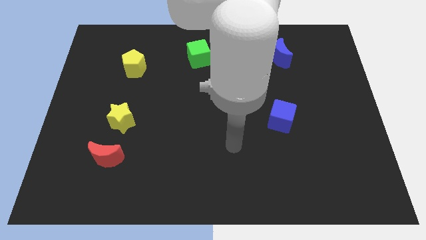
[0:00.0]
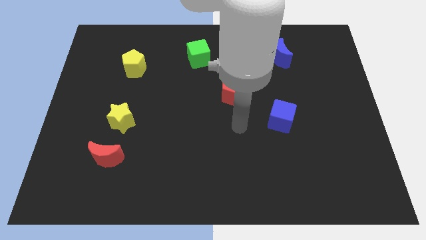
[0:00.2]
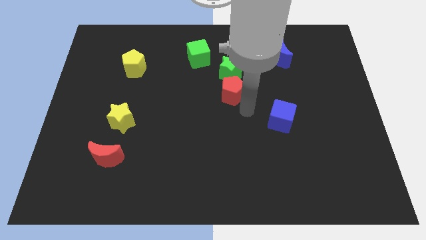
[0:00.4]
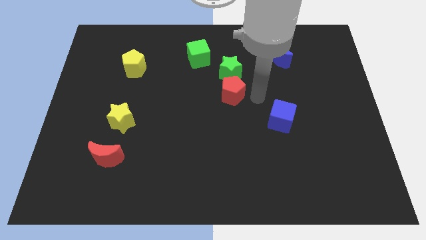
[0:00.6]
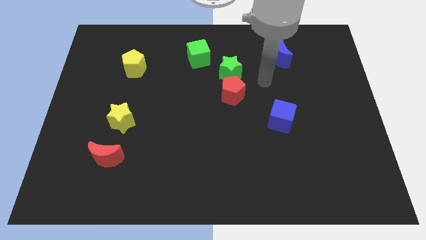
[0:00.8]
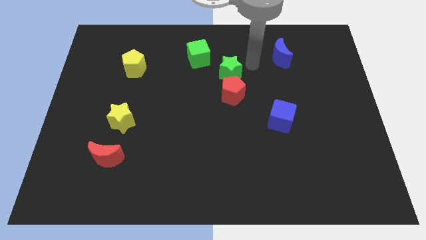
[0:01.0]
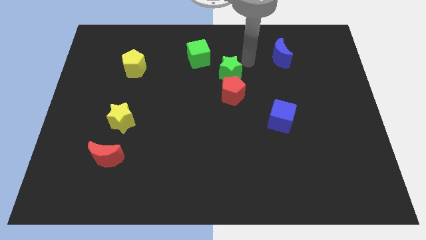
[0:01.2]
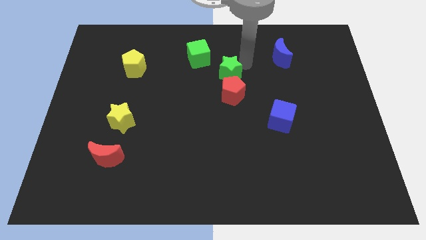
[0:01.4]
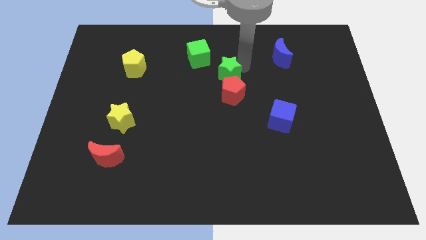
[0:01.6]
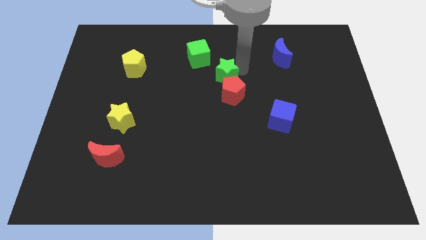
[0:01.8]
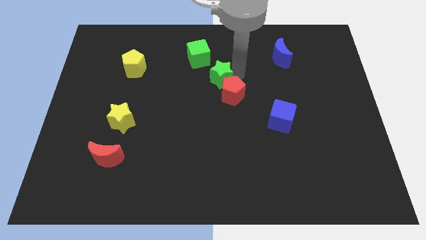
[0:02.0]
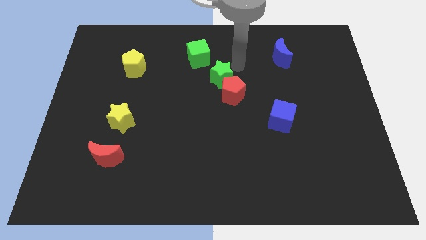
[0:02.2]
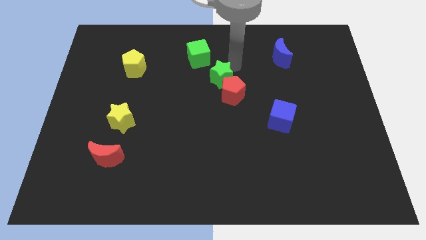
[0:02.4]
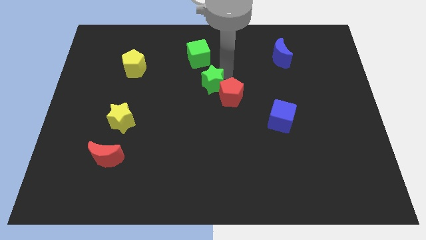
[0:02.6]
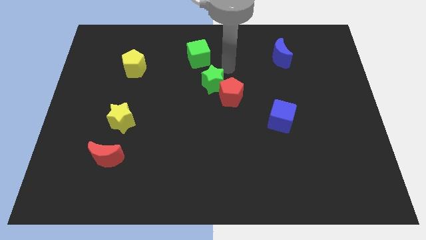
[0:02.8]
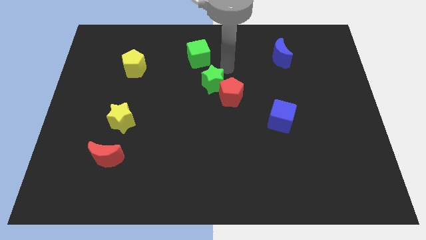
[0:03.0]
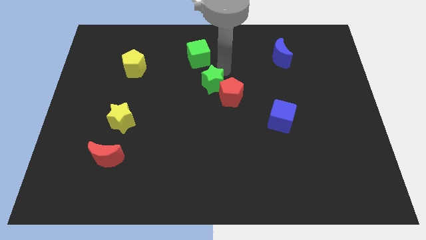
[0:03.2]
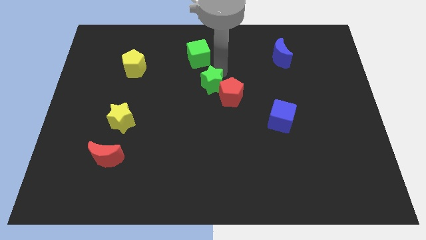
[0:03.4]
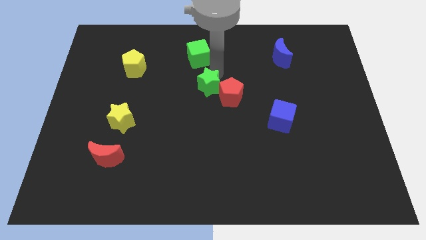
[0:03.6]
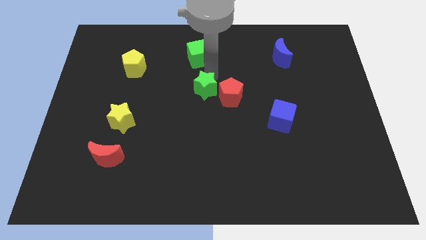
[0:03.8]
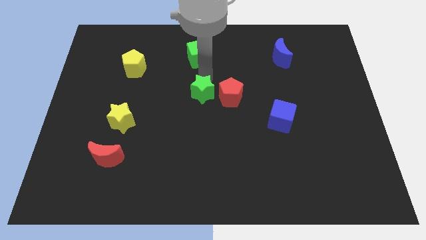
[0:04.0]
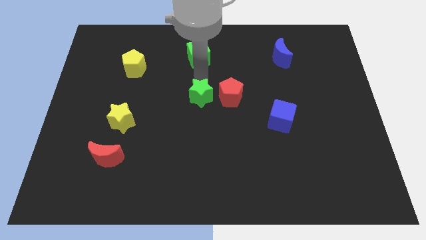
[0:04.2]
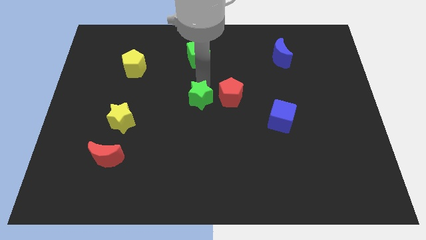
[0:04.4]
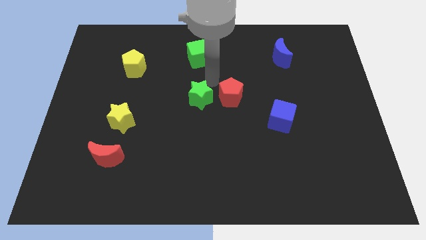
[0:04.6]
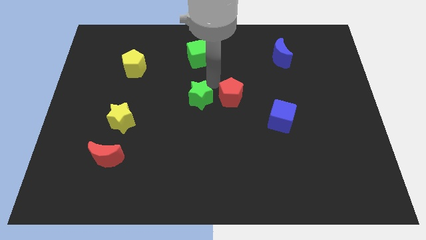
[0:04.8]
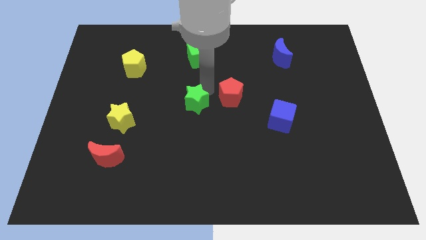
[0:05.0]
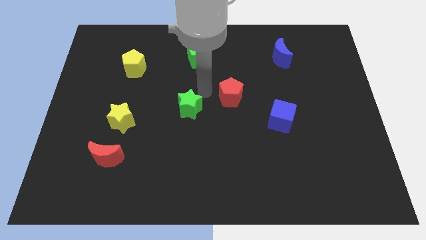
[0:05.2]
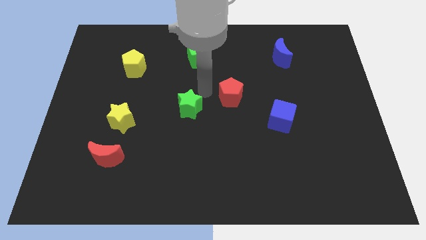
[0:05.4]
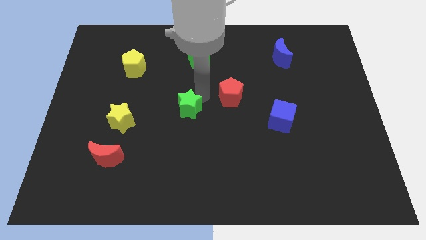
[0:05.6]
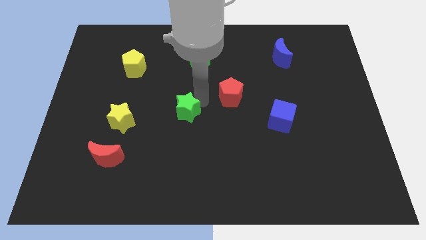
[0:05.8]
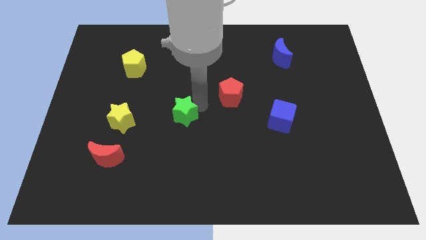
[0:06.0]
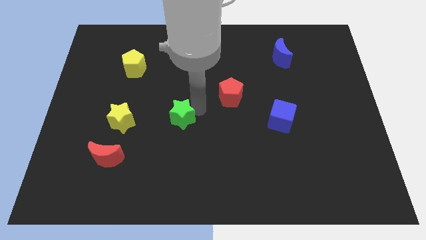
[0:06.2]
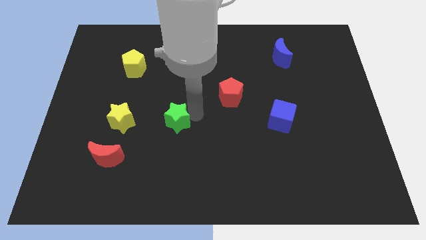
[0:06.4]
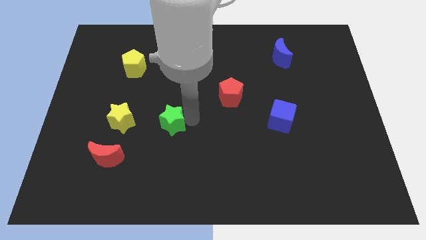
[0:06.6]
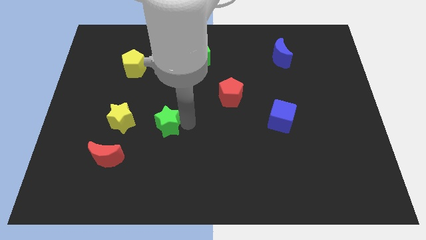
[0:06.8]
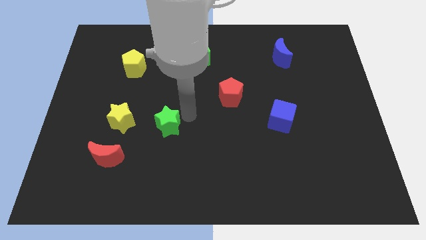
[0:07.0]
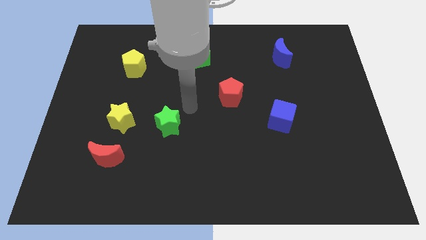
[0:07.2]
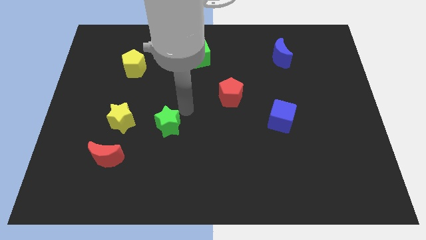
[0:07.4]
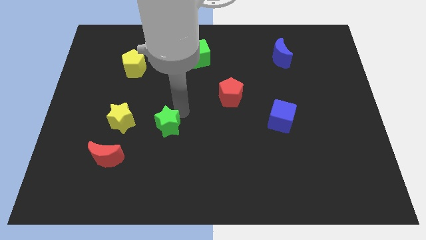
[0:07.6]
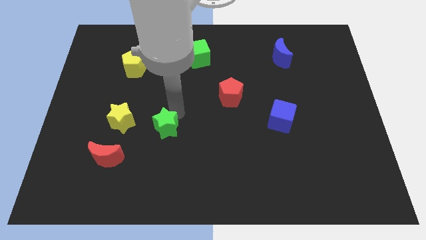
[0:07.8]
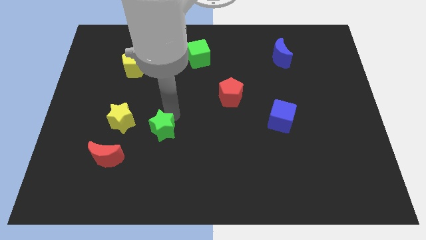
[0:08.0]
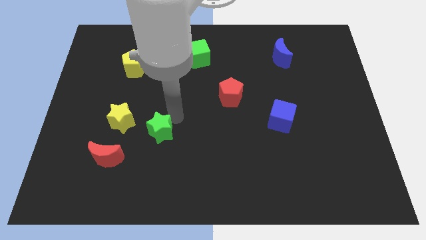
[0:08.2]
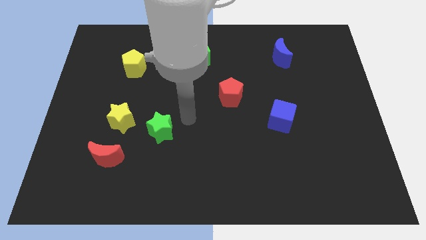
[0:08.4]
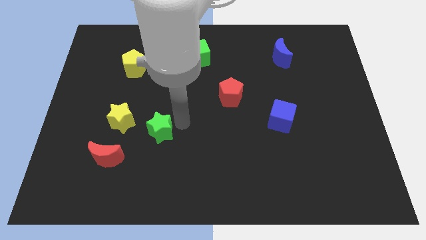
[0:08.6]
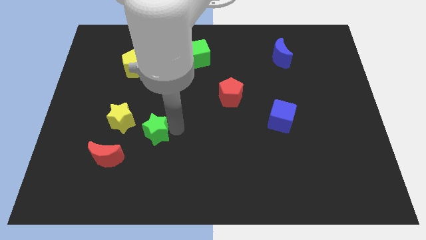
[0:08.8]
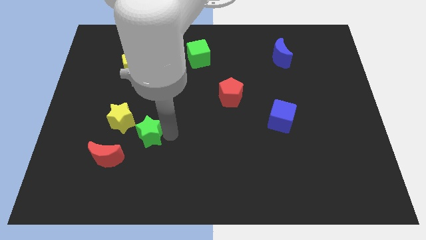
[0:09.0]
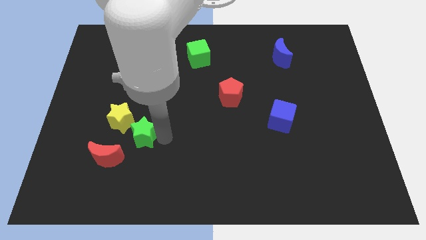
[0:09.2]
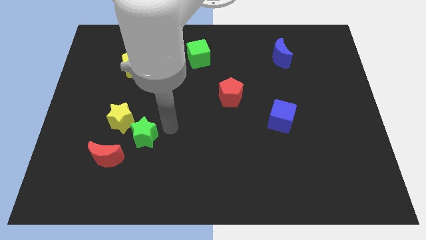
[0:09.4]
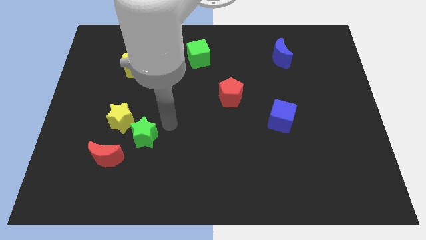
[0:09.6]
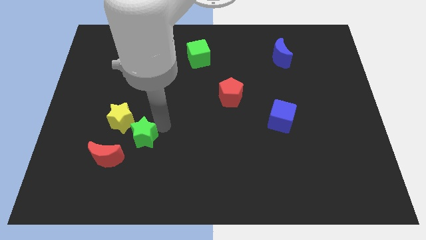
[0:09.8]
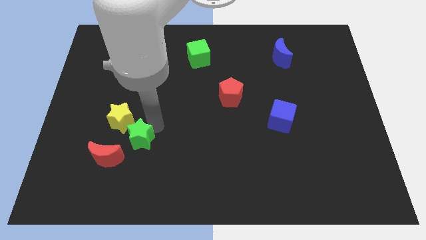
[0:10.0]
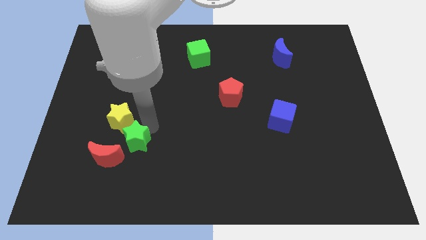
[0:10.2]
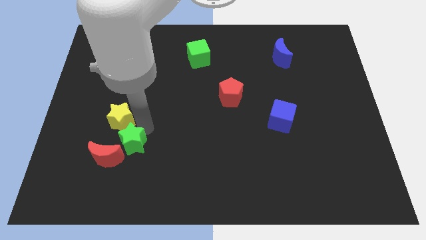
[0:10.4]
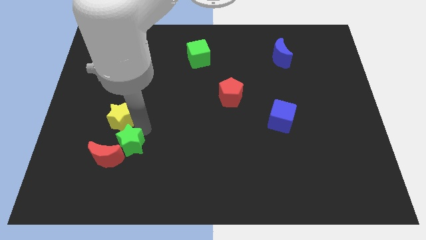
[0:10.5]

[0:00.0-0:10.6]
move the green star to the red moon

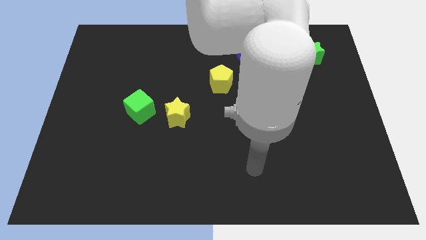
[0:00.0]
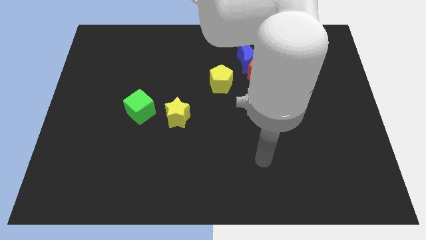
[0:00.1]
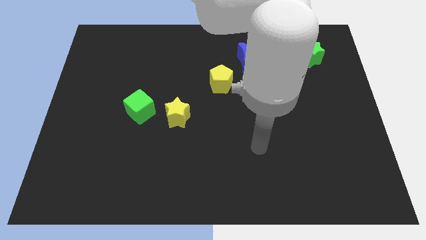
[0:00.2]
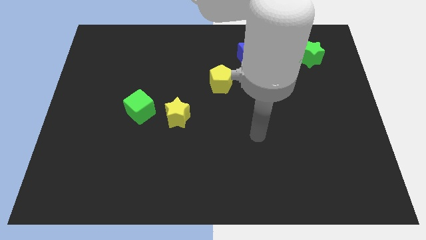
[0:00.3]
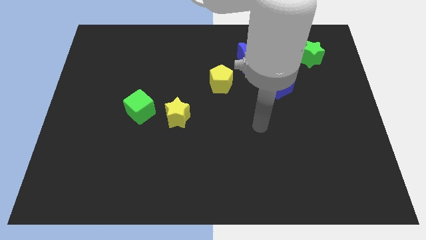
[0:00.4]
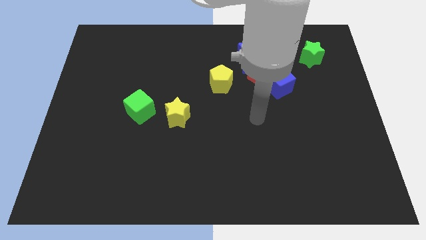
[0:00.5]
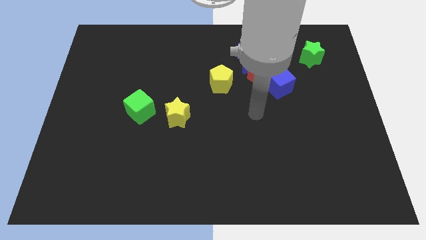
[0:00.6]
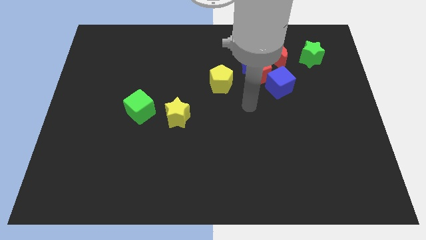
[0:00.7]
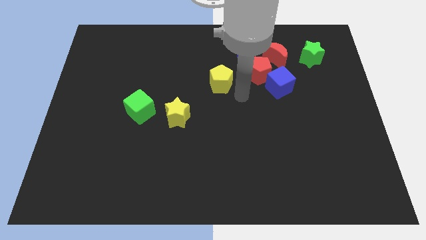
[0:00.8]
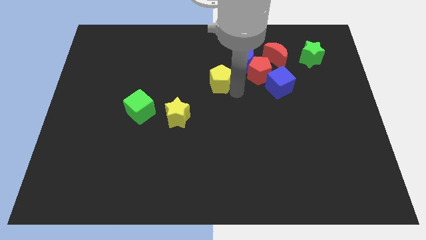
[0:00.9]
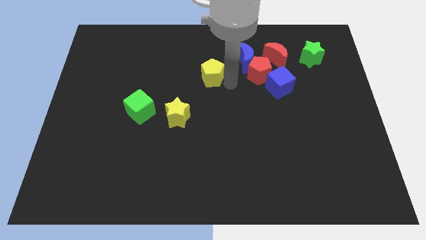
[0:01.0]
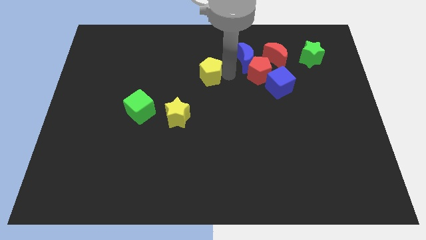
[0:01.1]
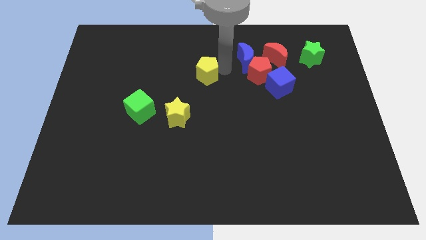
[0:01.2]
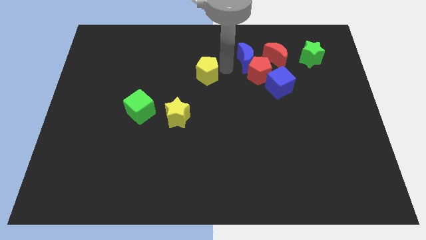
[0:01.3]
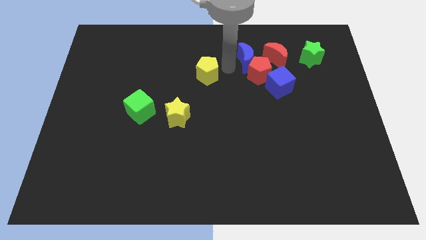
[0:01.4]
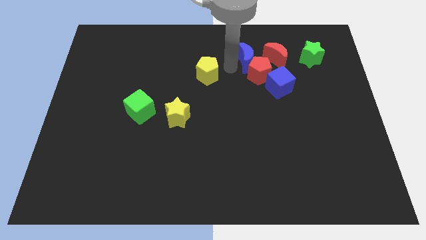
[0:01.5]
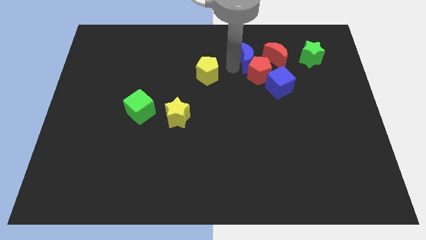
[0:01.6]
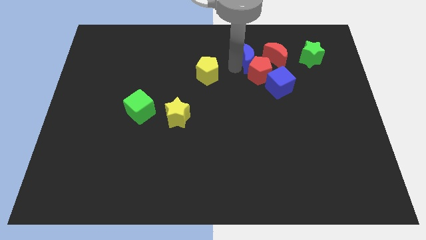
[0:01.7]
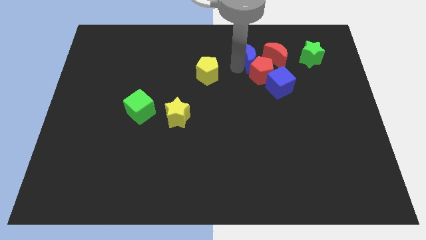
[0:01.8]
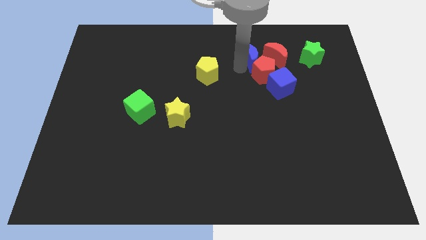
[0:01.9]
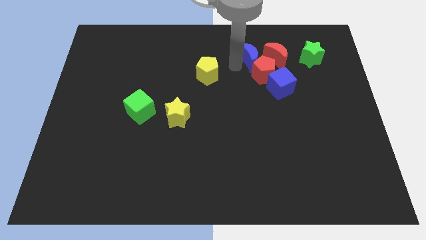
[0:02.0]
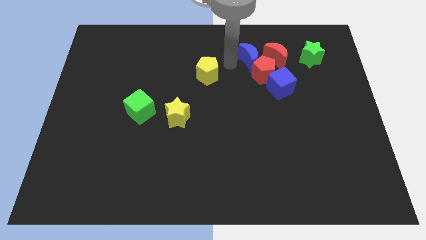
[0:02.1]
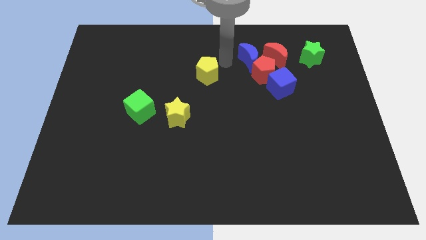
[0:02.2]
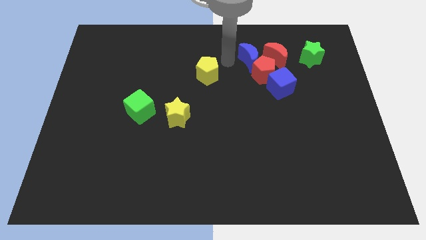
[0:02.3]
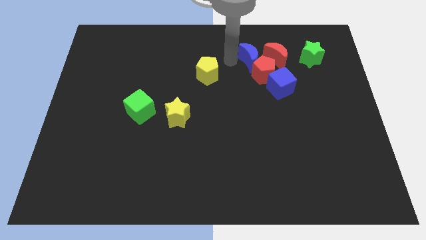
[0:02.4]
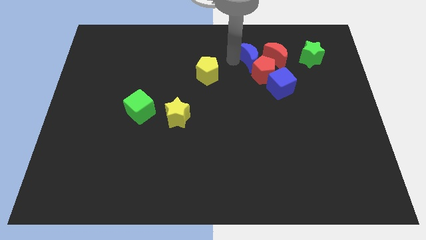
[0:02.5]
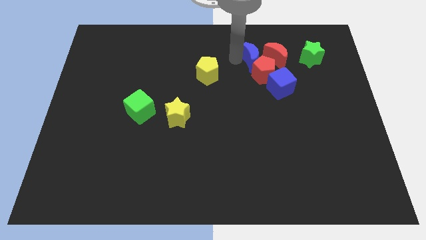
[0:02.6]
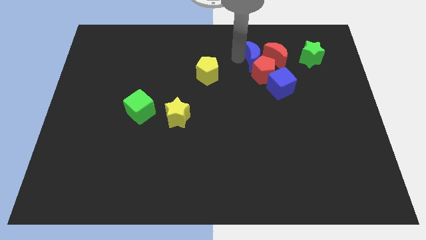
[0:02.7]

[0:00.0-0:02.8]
put the blue moon to the red moon
